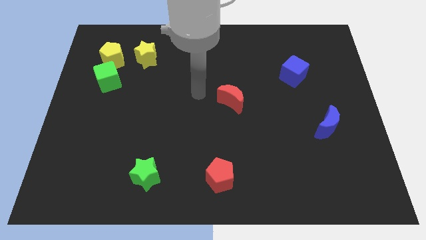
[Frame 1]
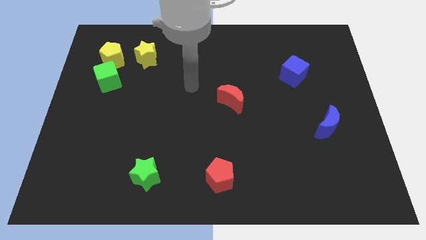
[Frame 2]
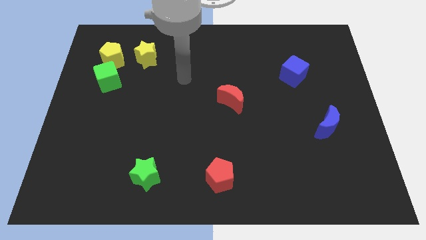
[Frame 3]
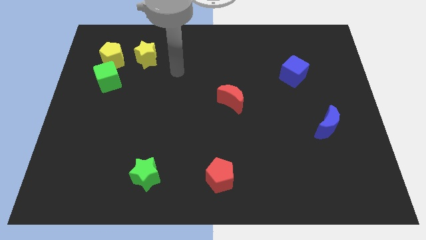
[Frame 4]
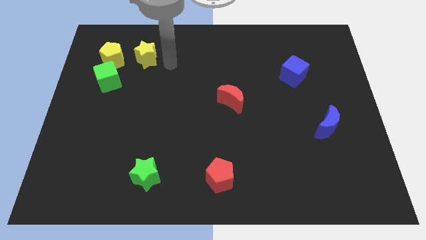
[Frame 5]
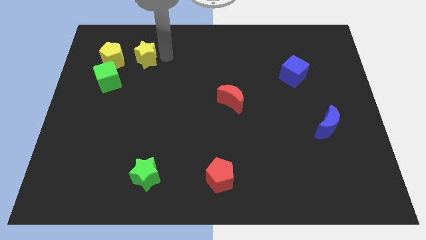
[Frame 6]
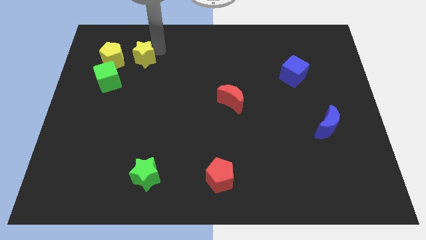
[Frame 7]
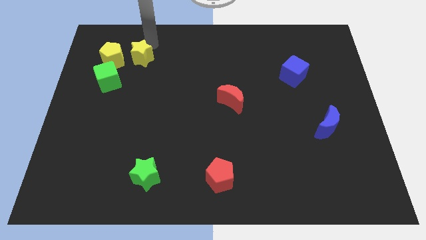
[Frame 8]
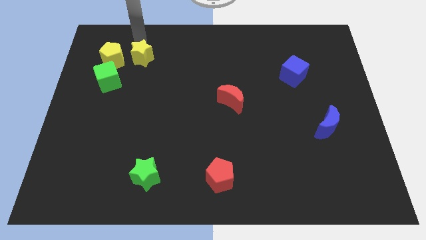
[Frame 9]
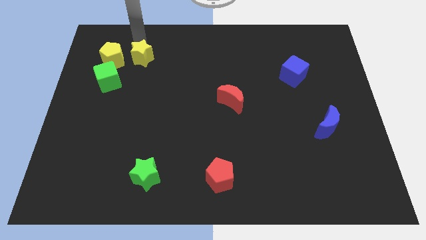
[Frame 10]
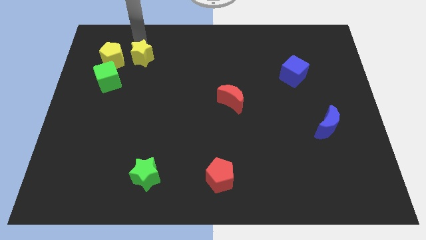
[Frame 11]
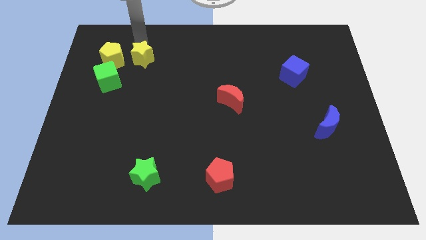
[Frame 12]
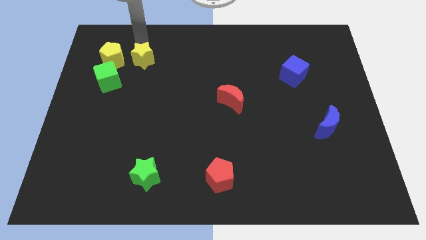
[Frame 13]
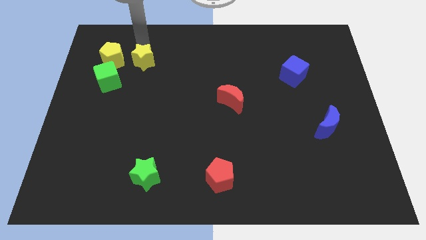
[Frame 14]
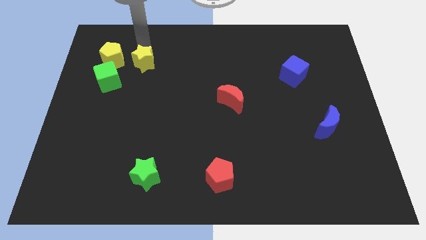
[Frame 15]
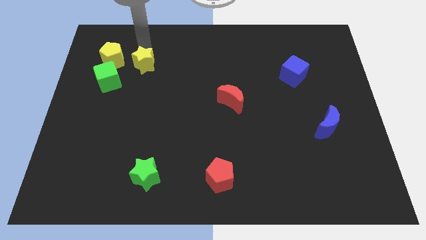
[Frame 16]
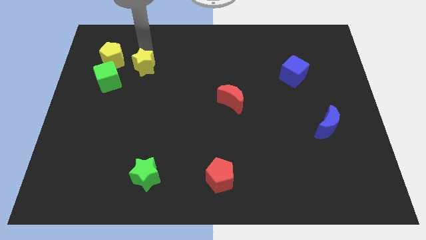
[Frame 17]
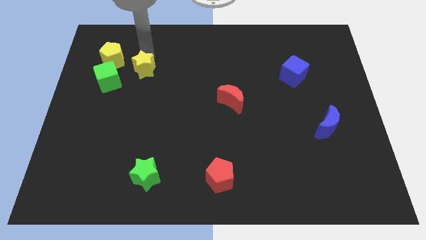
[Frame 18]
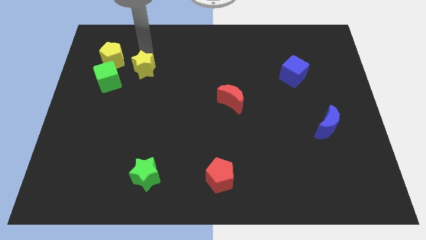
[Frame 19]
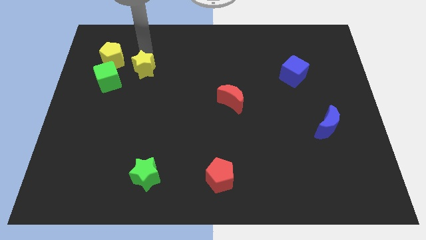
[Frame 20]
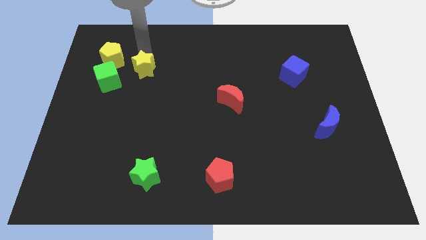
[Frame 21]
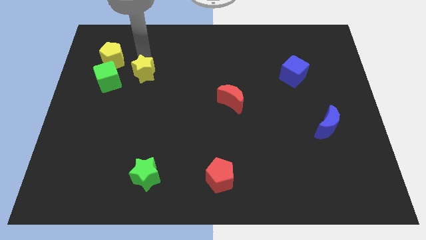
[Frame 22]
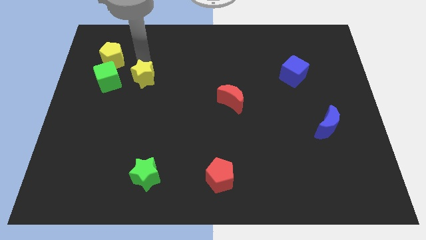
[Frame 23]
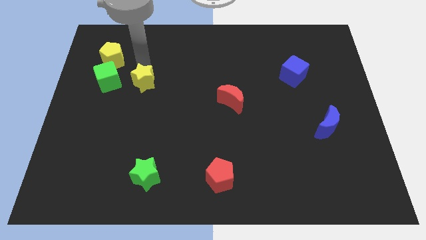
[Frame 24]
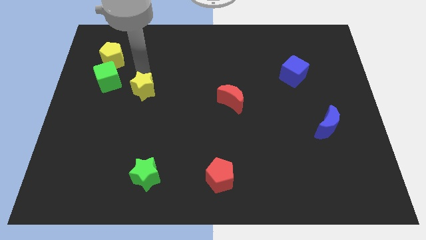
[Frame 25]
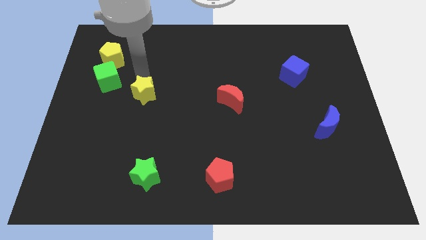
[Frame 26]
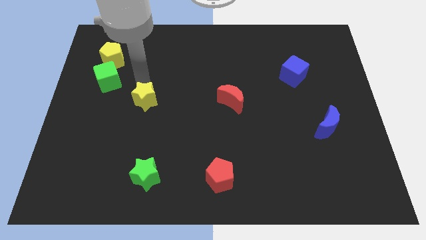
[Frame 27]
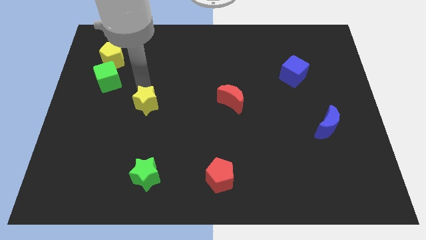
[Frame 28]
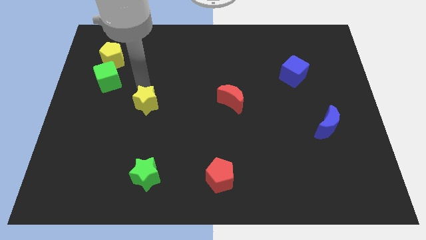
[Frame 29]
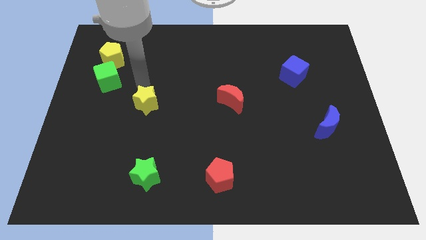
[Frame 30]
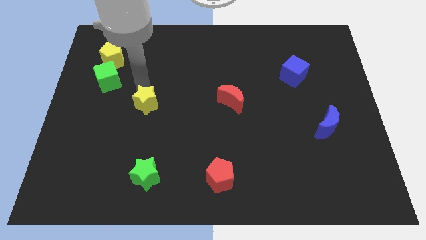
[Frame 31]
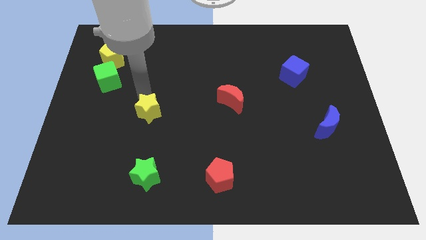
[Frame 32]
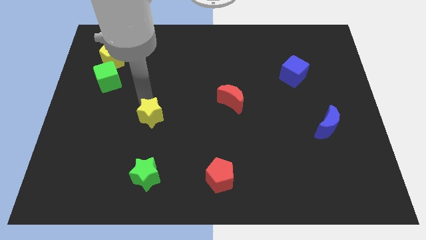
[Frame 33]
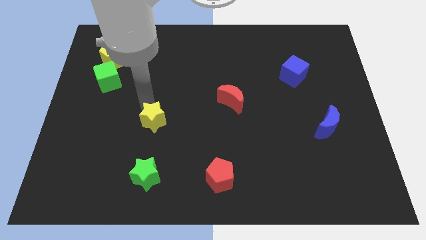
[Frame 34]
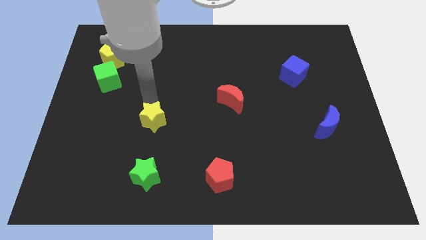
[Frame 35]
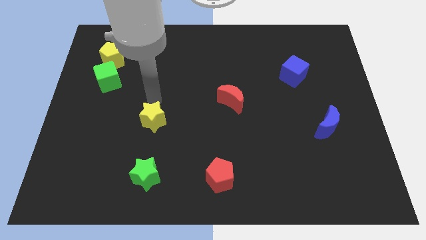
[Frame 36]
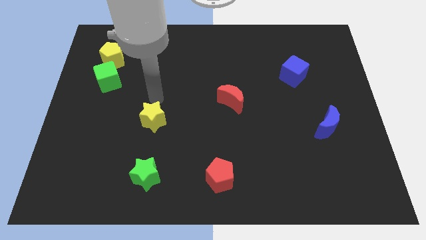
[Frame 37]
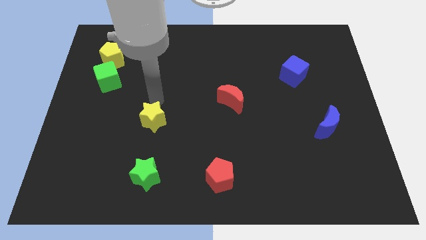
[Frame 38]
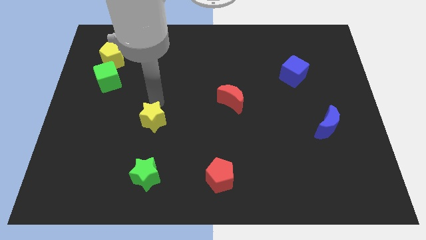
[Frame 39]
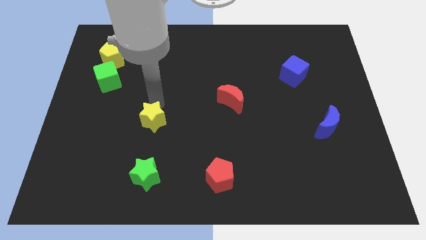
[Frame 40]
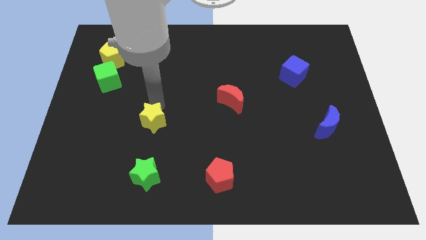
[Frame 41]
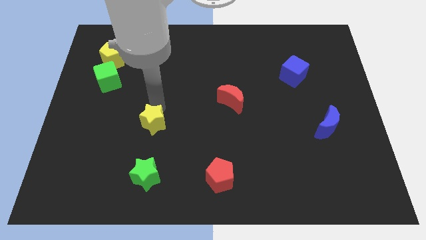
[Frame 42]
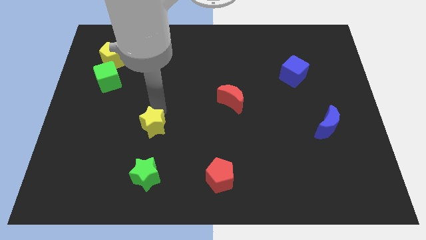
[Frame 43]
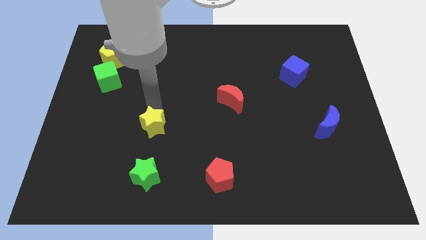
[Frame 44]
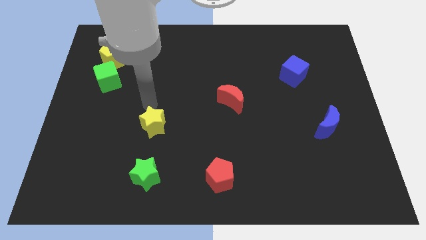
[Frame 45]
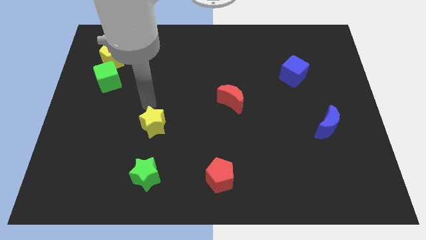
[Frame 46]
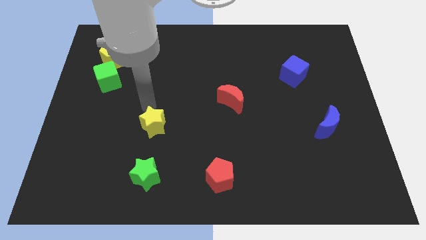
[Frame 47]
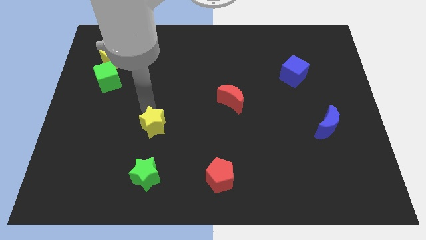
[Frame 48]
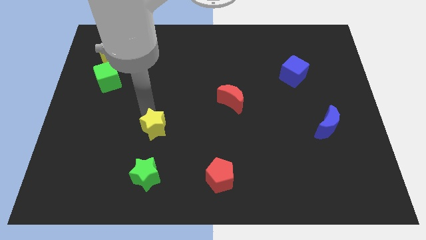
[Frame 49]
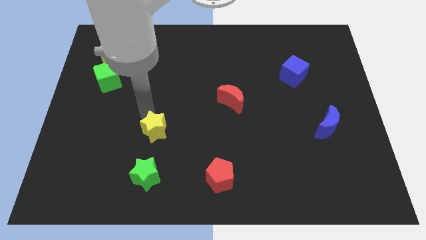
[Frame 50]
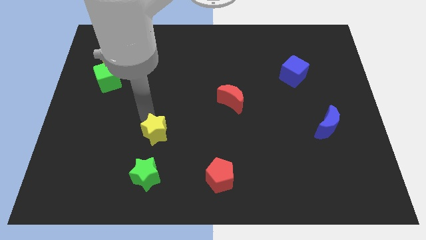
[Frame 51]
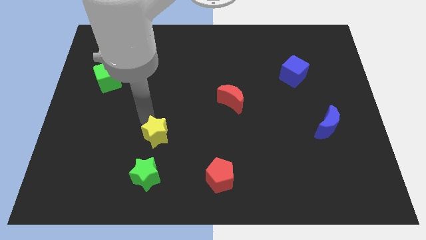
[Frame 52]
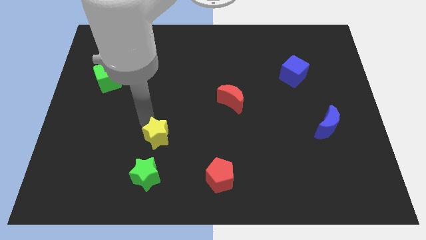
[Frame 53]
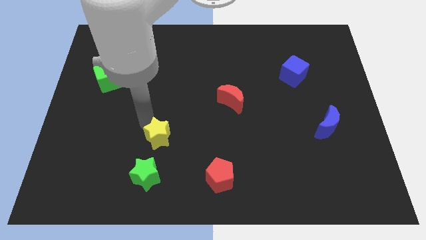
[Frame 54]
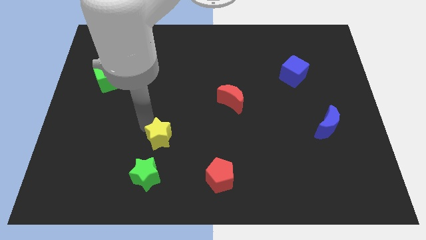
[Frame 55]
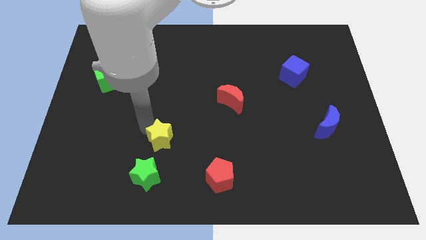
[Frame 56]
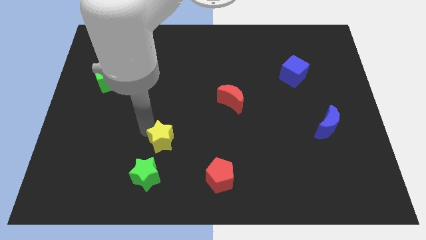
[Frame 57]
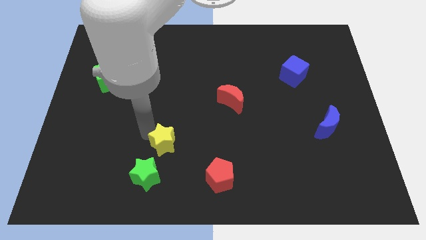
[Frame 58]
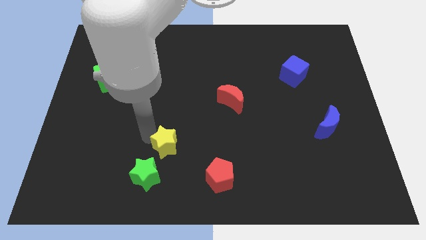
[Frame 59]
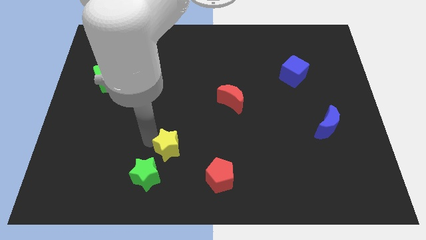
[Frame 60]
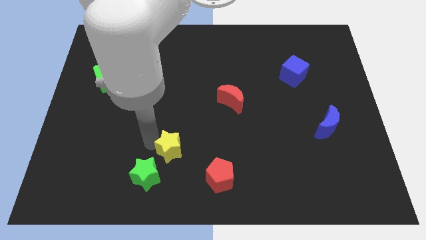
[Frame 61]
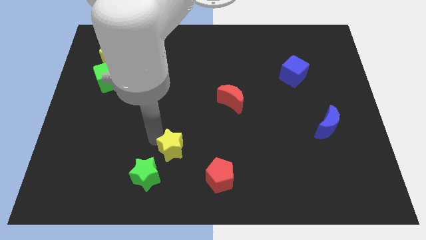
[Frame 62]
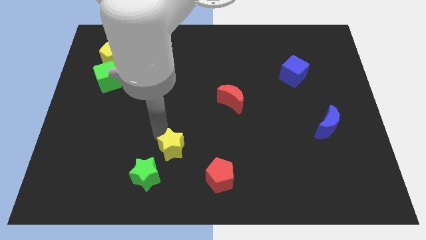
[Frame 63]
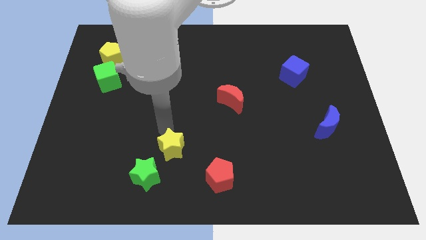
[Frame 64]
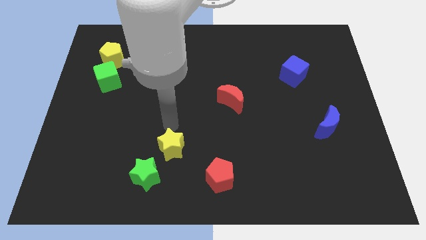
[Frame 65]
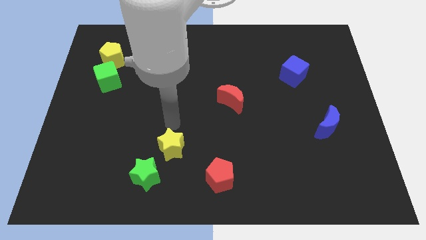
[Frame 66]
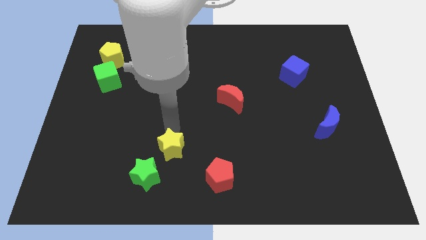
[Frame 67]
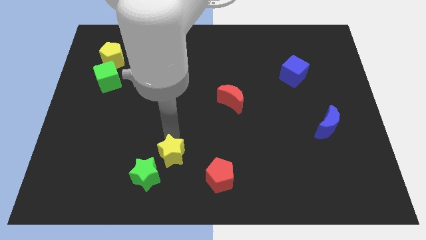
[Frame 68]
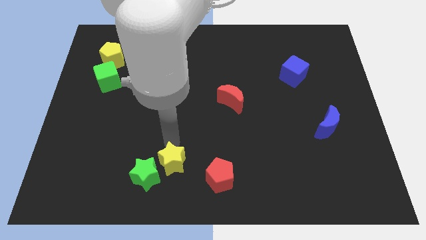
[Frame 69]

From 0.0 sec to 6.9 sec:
move the yellow star to the left of the red pentagon

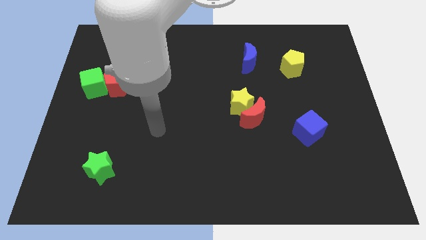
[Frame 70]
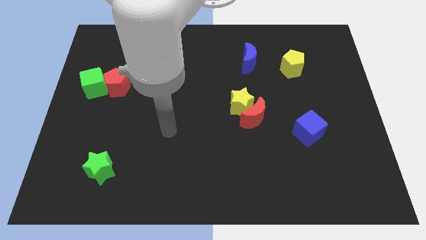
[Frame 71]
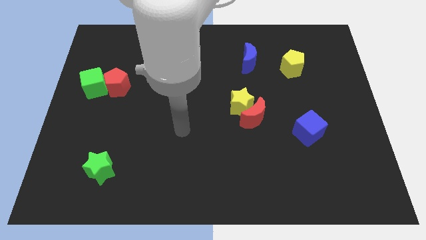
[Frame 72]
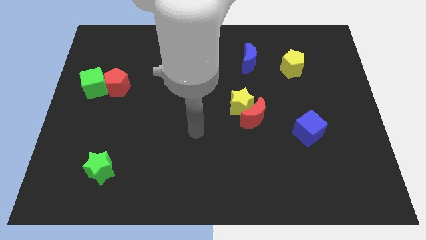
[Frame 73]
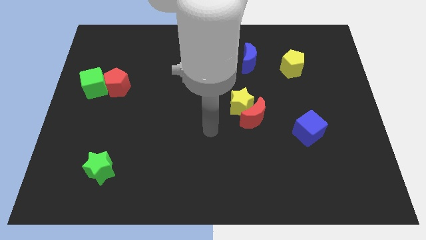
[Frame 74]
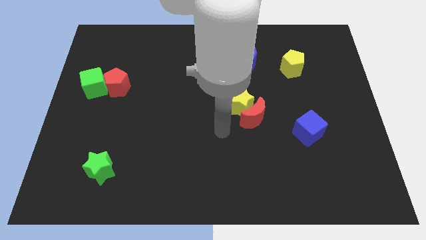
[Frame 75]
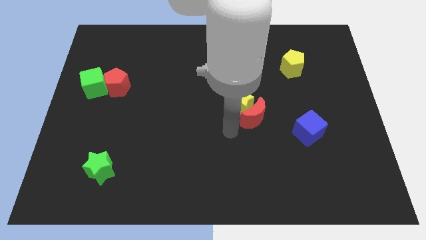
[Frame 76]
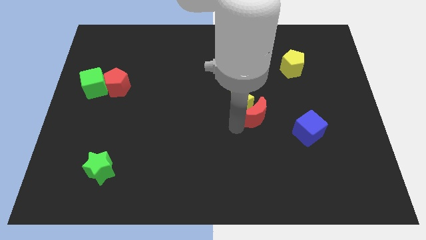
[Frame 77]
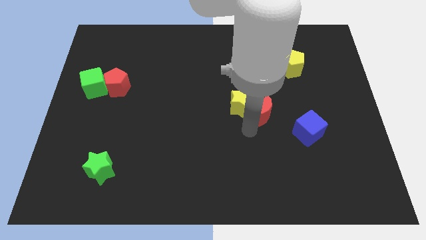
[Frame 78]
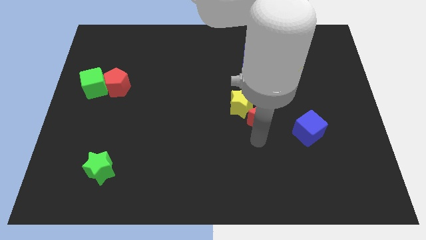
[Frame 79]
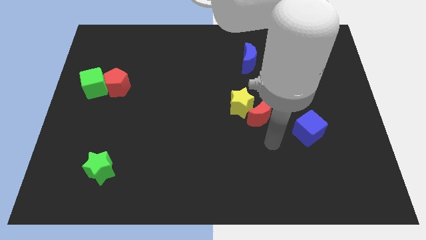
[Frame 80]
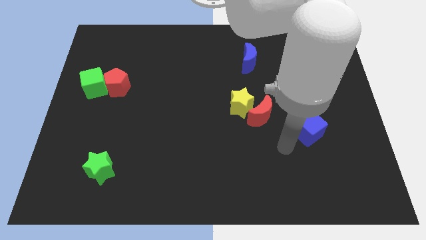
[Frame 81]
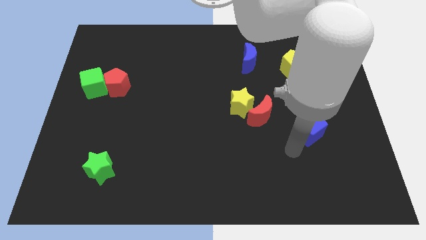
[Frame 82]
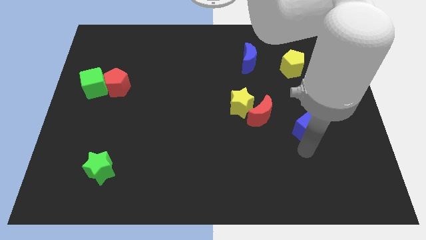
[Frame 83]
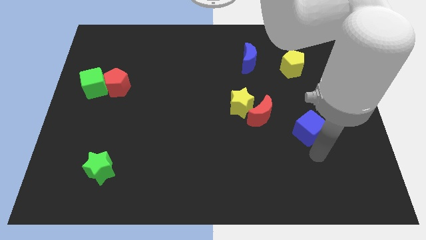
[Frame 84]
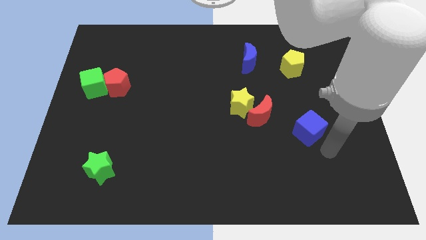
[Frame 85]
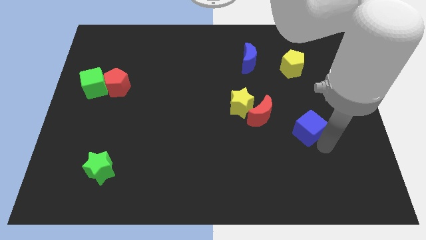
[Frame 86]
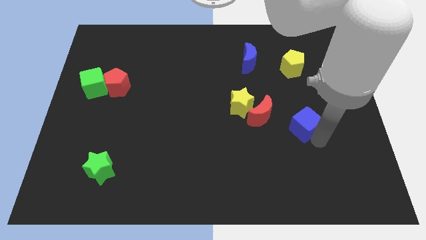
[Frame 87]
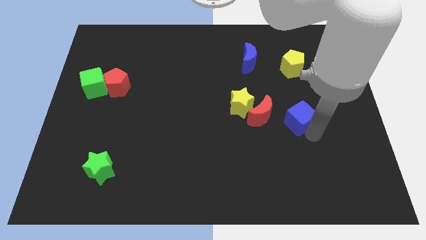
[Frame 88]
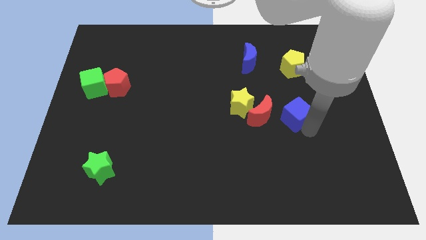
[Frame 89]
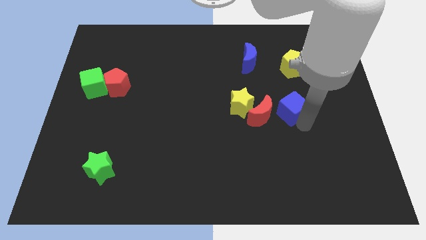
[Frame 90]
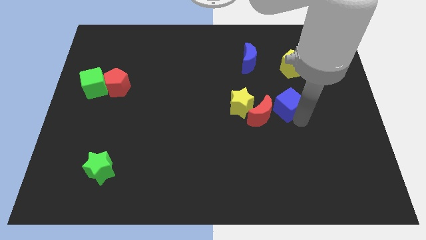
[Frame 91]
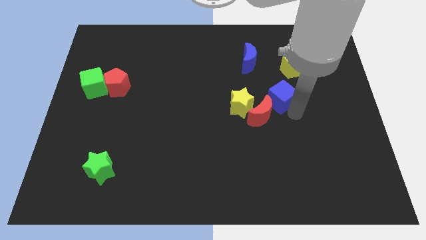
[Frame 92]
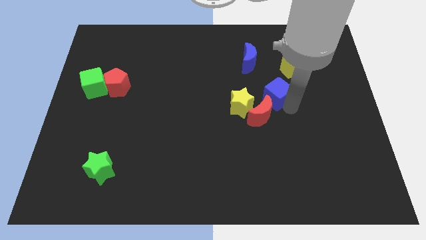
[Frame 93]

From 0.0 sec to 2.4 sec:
move the blue cube to the top right of the yellow star
